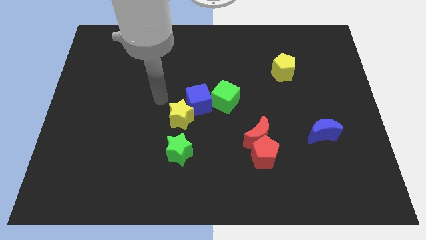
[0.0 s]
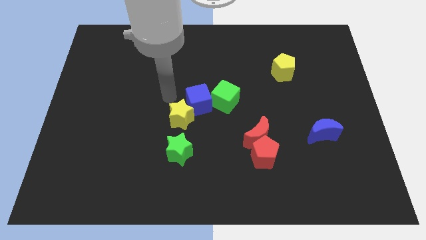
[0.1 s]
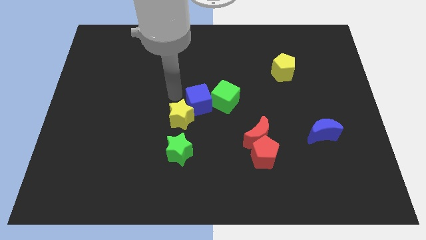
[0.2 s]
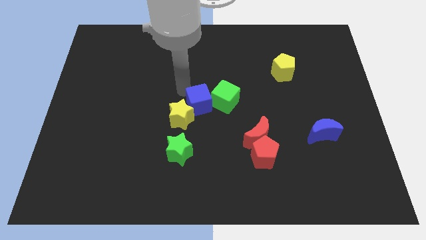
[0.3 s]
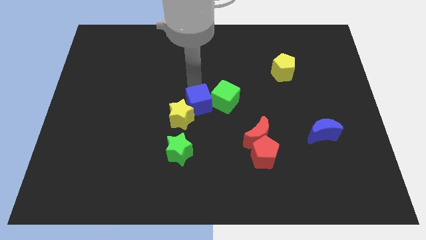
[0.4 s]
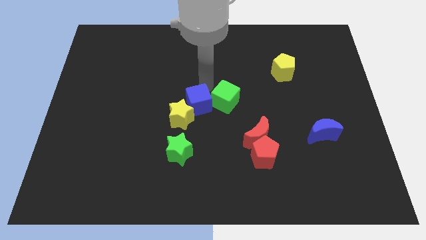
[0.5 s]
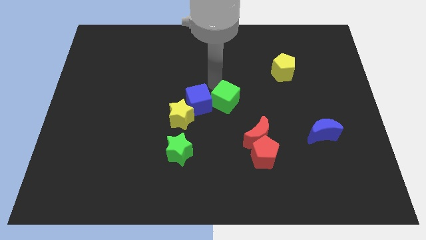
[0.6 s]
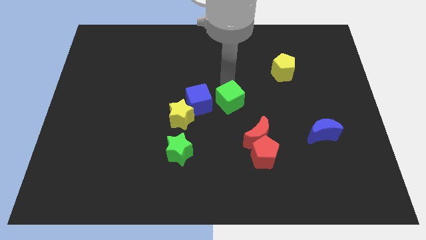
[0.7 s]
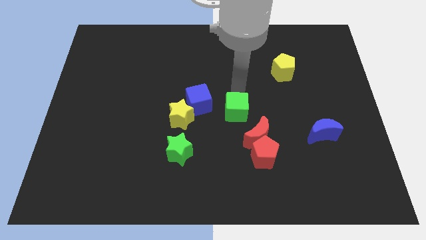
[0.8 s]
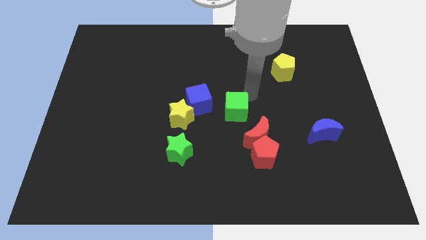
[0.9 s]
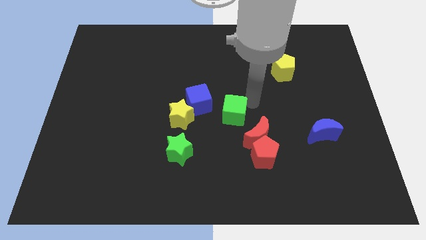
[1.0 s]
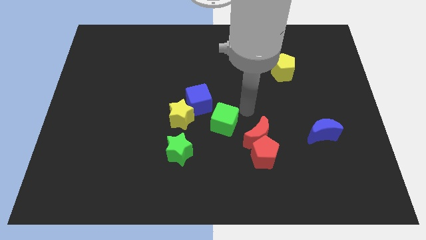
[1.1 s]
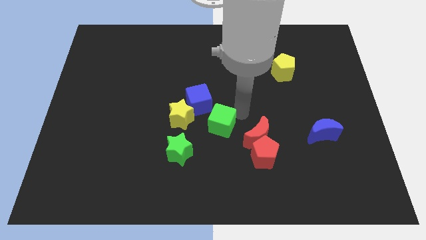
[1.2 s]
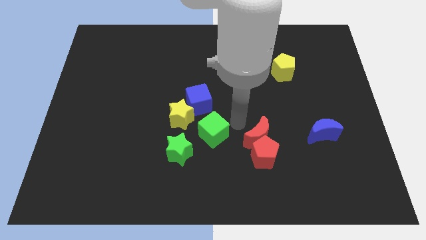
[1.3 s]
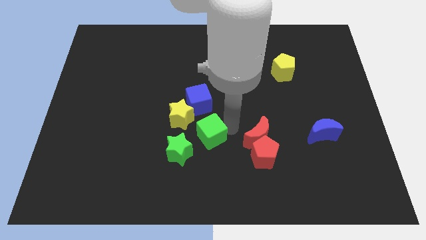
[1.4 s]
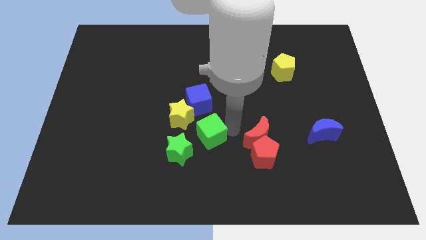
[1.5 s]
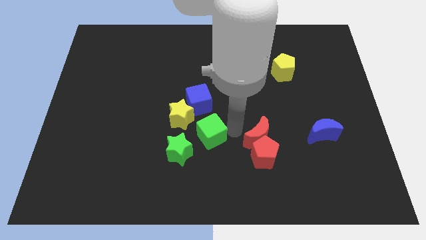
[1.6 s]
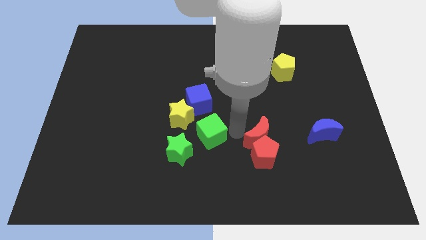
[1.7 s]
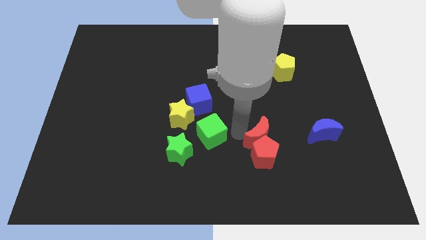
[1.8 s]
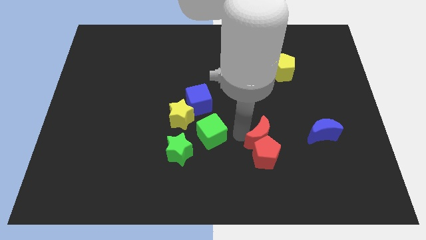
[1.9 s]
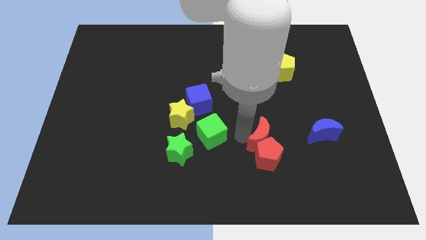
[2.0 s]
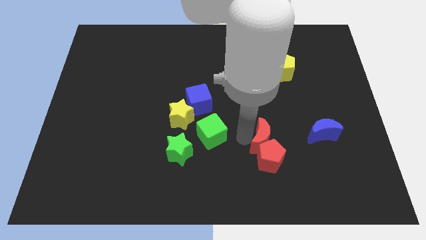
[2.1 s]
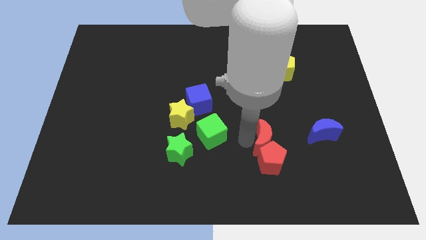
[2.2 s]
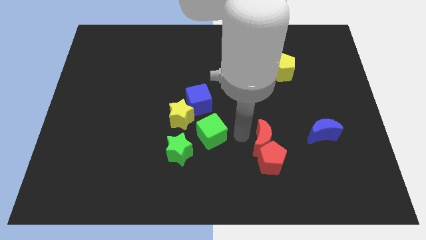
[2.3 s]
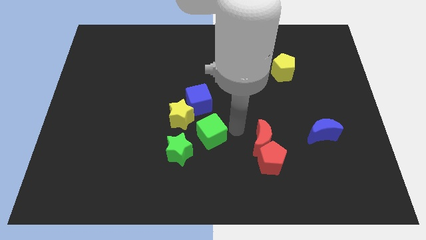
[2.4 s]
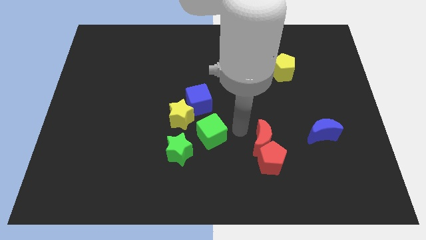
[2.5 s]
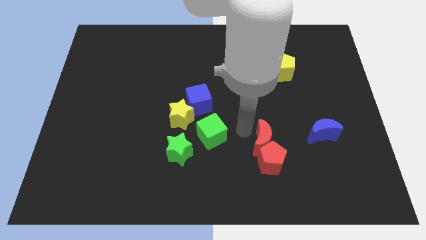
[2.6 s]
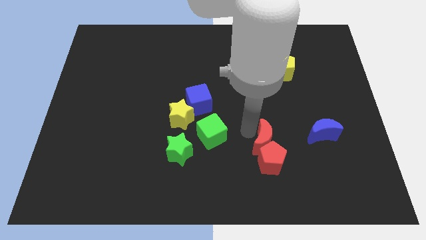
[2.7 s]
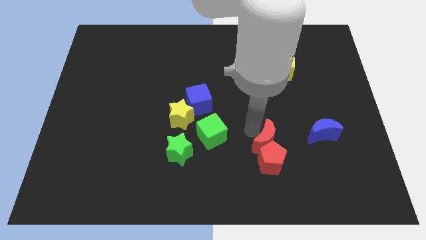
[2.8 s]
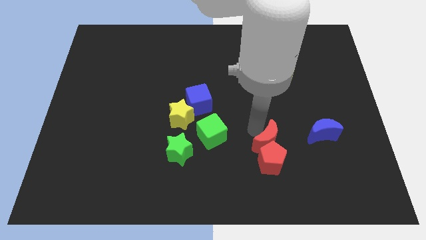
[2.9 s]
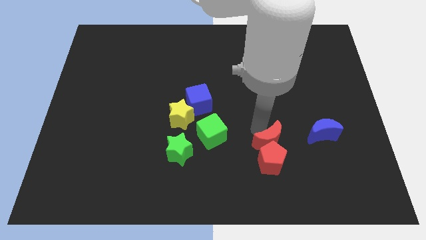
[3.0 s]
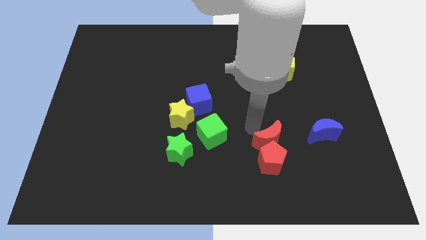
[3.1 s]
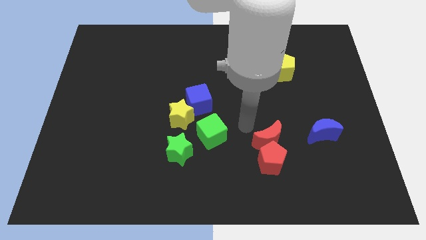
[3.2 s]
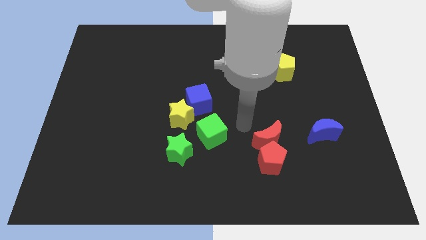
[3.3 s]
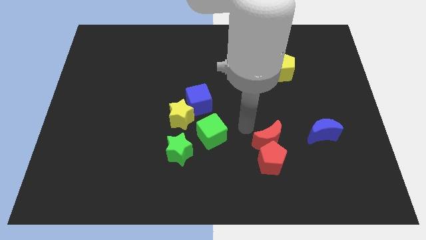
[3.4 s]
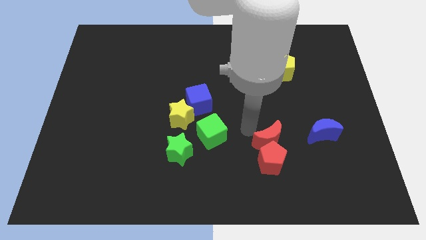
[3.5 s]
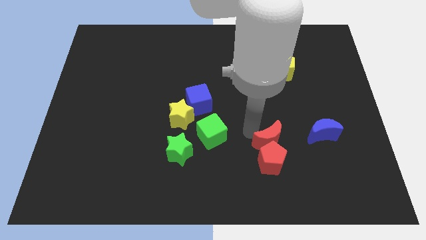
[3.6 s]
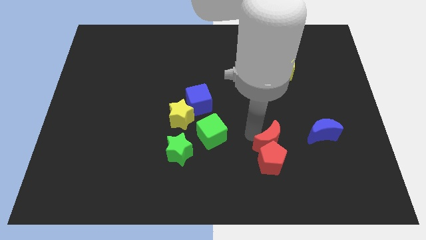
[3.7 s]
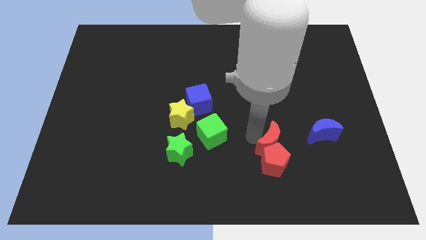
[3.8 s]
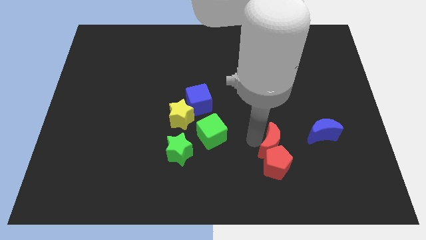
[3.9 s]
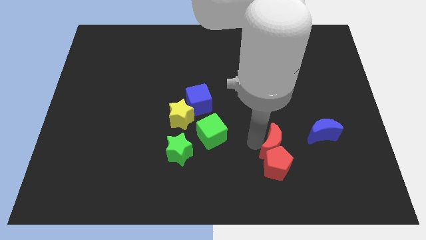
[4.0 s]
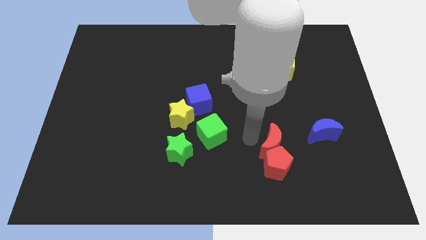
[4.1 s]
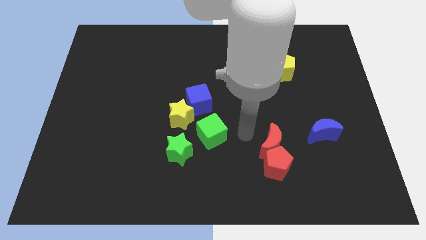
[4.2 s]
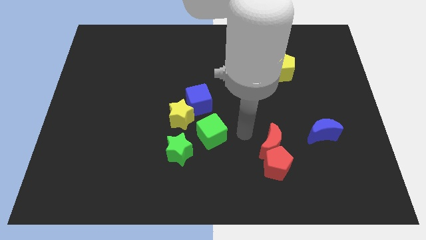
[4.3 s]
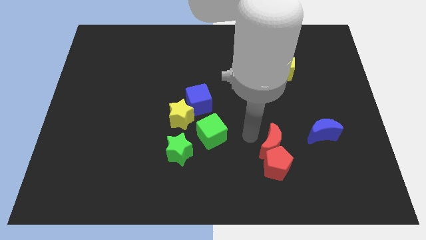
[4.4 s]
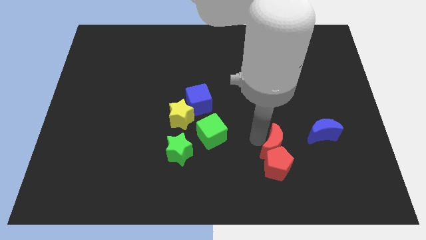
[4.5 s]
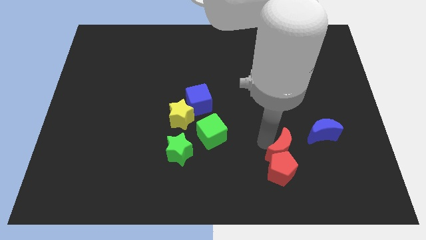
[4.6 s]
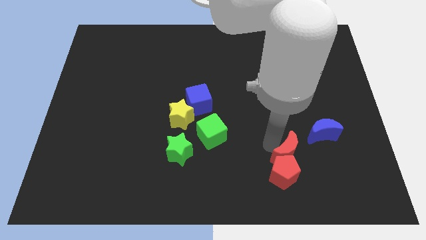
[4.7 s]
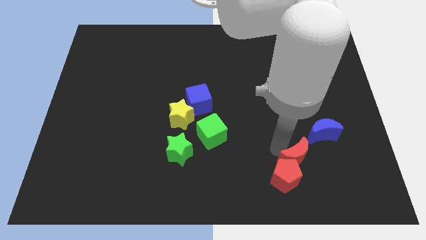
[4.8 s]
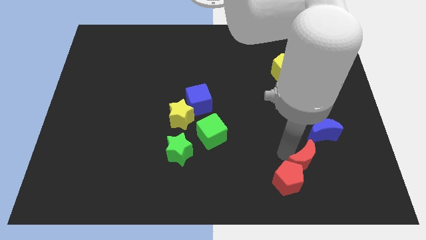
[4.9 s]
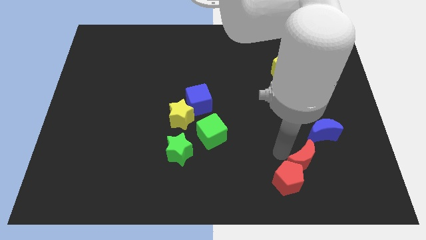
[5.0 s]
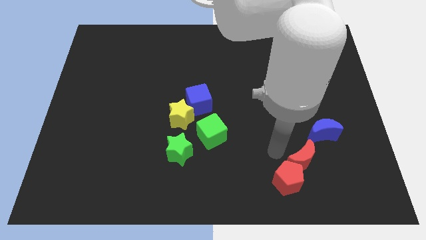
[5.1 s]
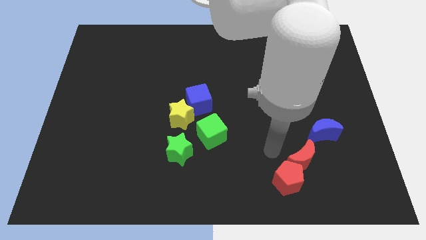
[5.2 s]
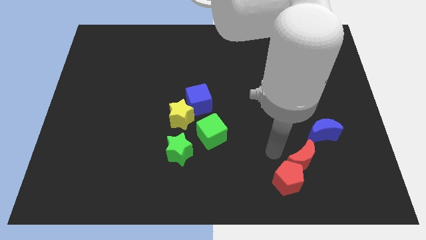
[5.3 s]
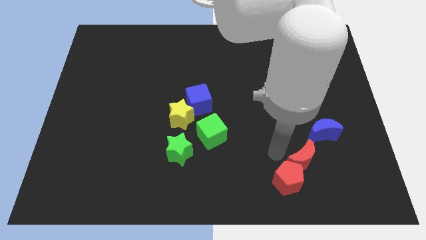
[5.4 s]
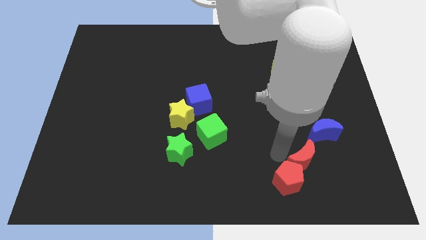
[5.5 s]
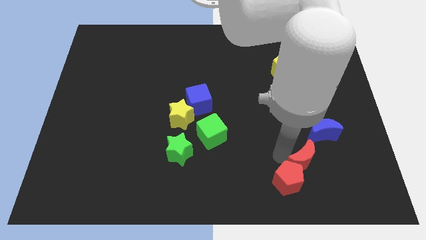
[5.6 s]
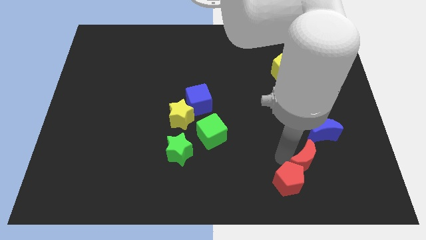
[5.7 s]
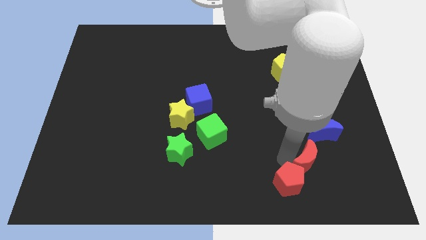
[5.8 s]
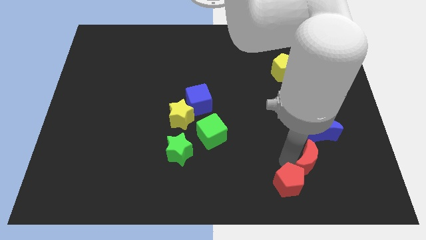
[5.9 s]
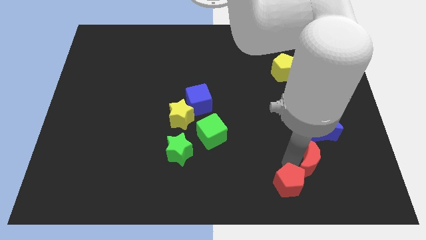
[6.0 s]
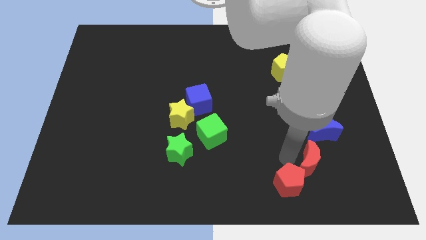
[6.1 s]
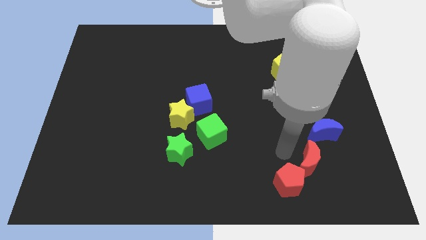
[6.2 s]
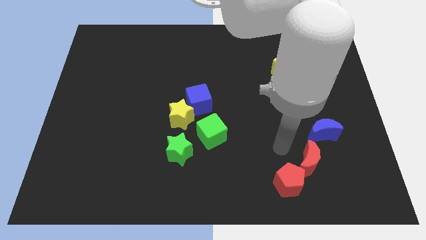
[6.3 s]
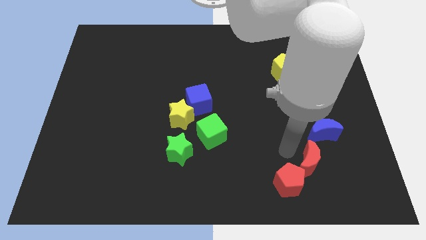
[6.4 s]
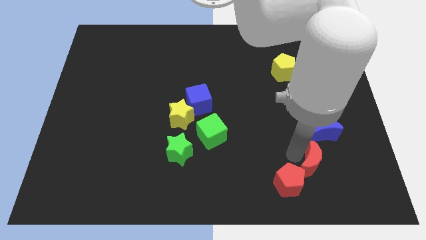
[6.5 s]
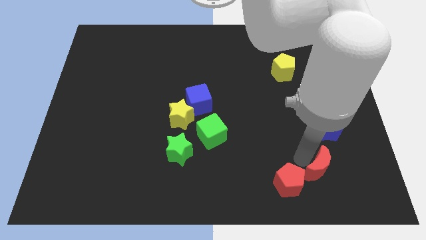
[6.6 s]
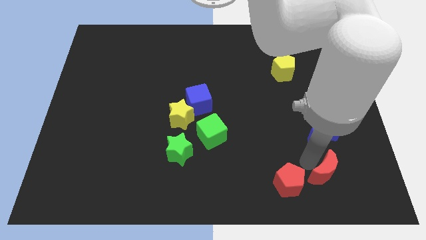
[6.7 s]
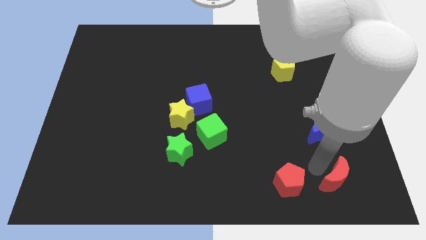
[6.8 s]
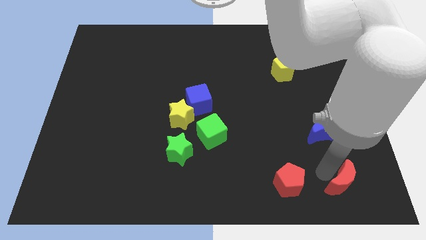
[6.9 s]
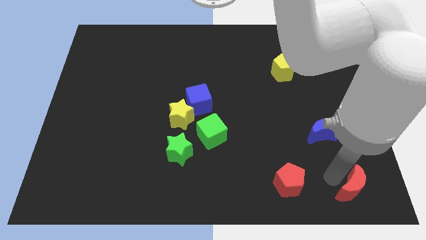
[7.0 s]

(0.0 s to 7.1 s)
push the red moon to the bottom right corner
